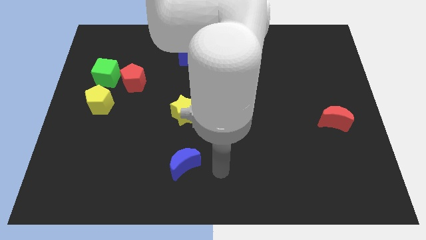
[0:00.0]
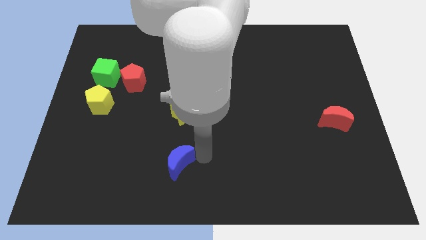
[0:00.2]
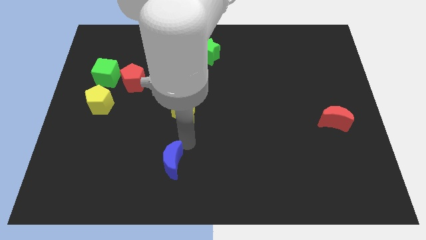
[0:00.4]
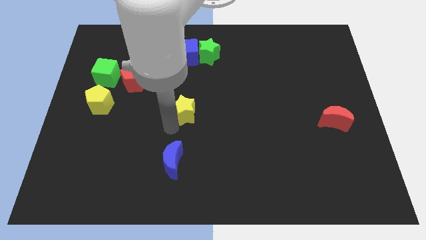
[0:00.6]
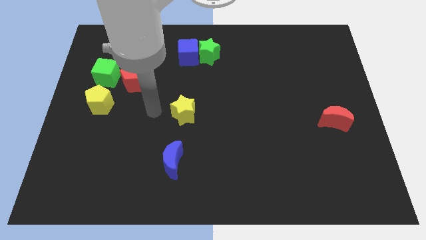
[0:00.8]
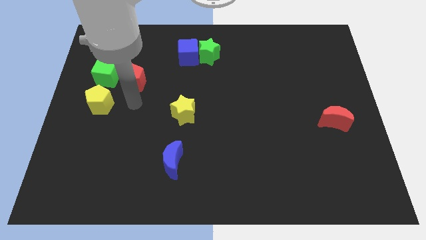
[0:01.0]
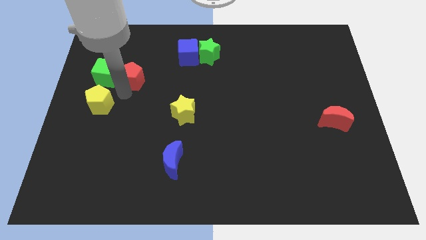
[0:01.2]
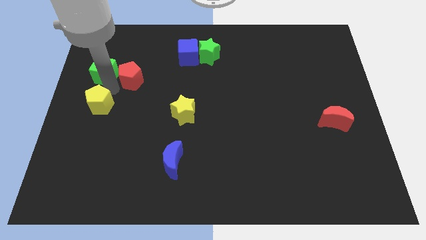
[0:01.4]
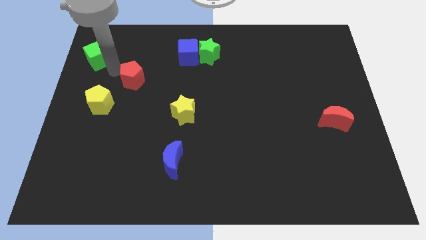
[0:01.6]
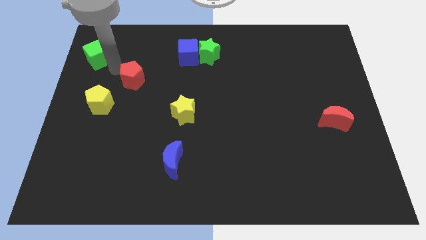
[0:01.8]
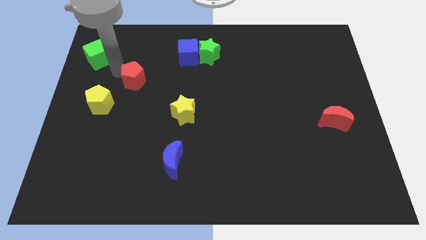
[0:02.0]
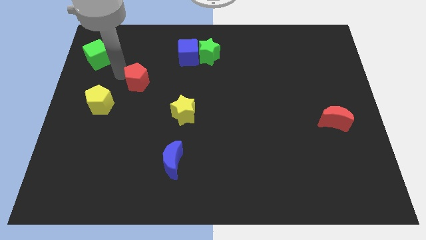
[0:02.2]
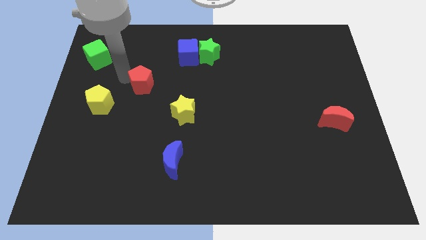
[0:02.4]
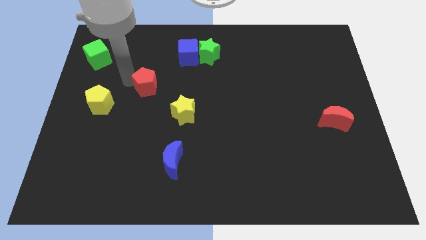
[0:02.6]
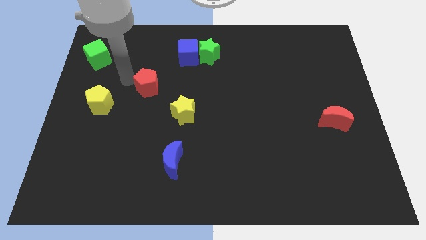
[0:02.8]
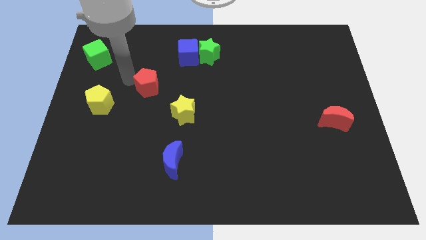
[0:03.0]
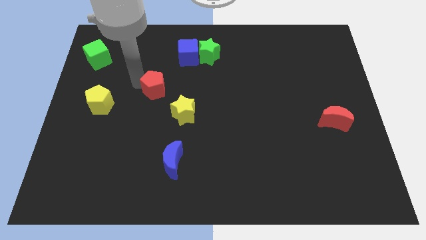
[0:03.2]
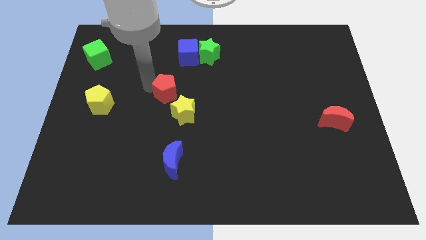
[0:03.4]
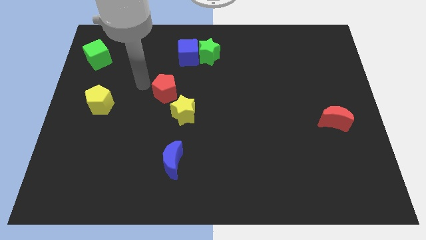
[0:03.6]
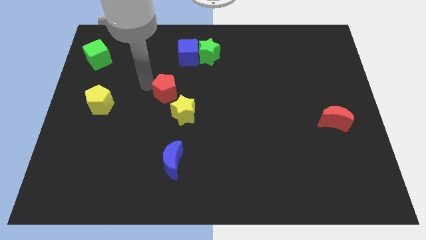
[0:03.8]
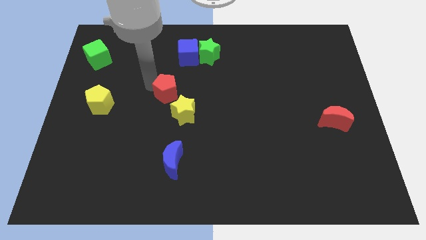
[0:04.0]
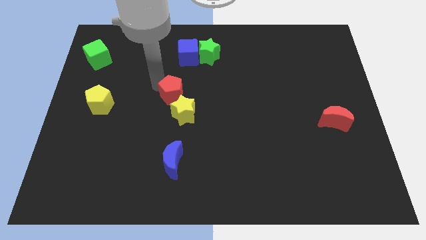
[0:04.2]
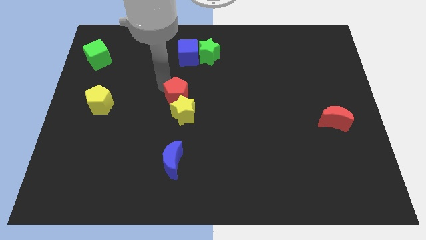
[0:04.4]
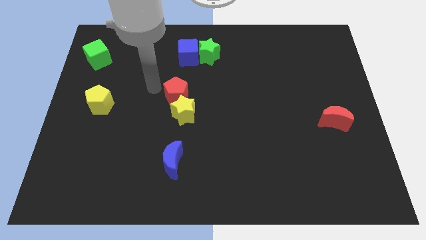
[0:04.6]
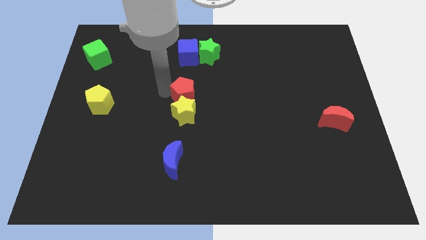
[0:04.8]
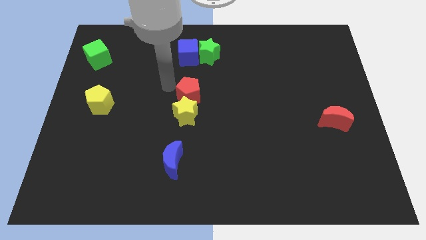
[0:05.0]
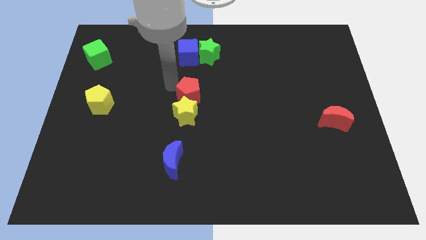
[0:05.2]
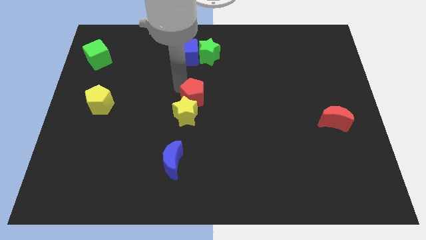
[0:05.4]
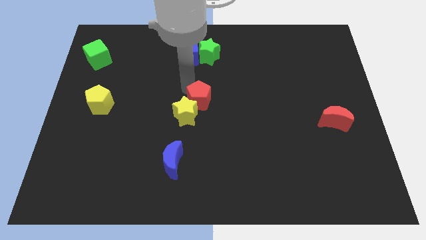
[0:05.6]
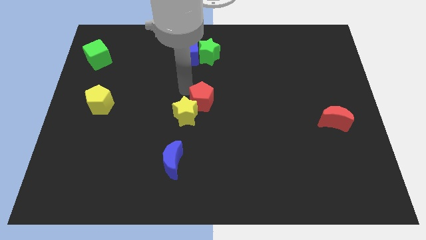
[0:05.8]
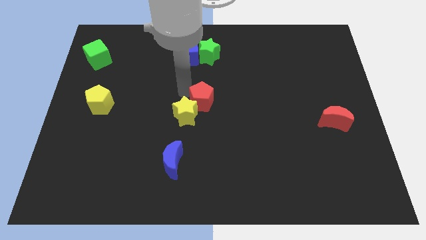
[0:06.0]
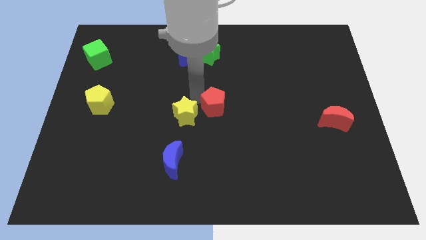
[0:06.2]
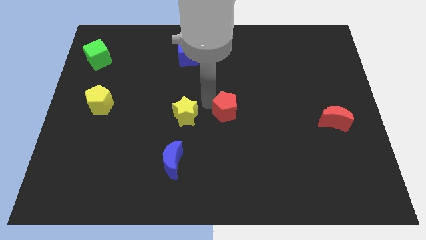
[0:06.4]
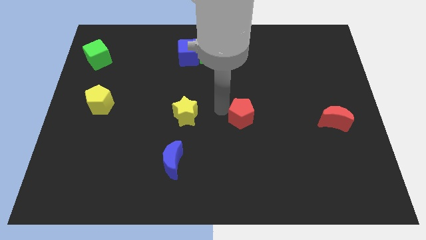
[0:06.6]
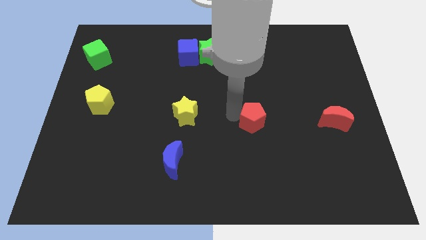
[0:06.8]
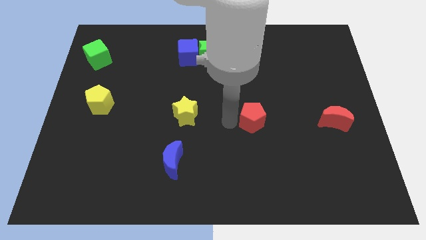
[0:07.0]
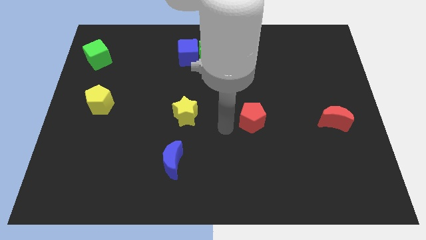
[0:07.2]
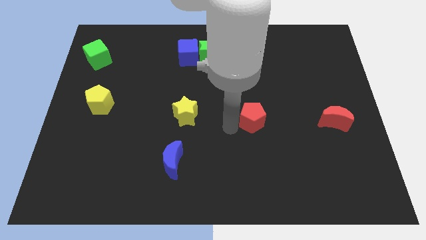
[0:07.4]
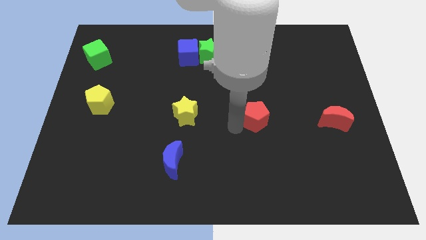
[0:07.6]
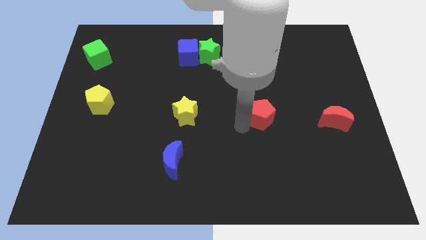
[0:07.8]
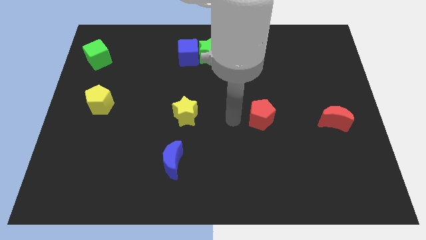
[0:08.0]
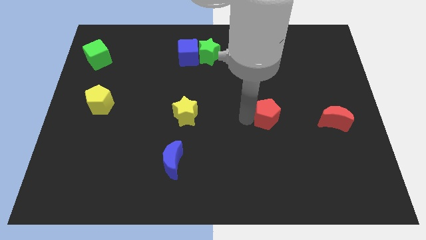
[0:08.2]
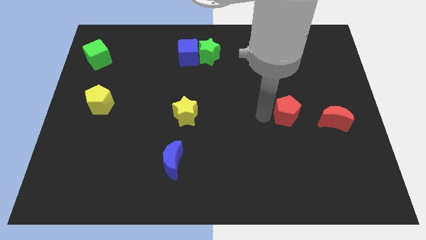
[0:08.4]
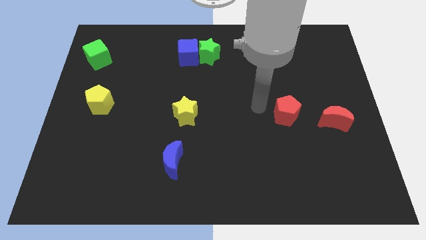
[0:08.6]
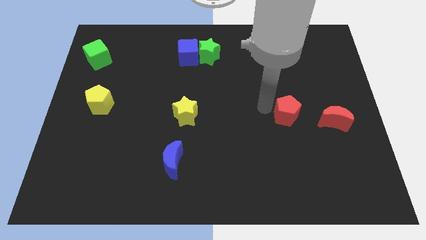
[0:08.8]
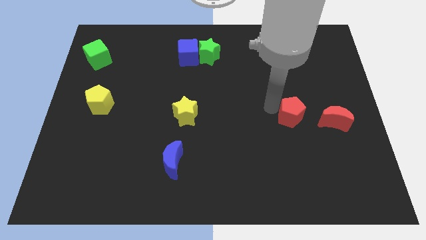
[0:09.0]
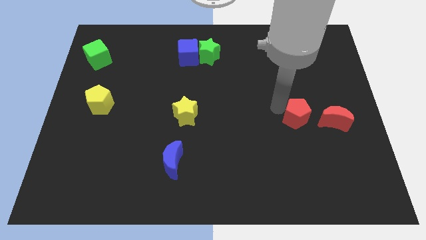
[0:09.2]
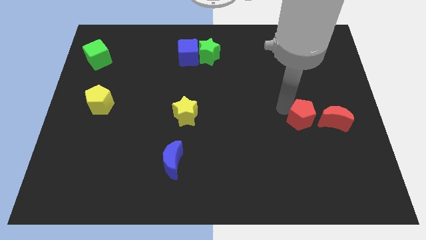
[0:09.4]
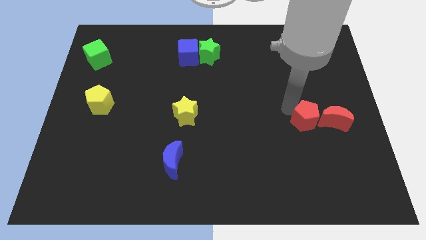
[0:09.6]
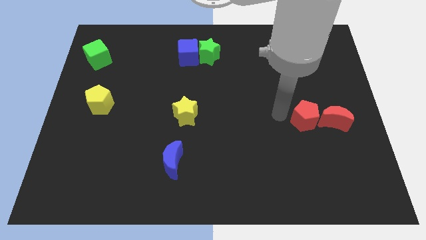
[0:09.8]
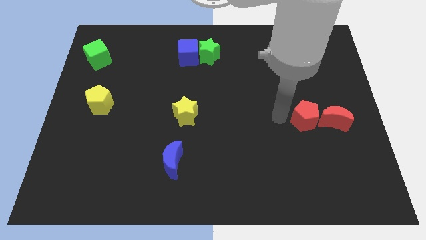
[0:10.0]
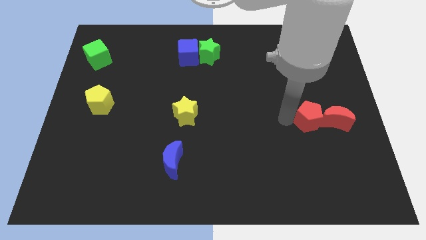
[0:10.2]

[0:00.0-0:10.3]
put the red pentagon to the red moon

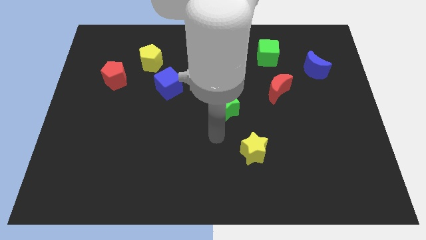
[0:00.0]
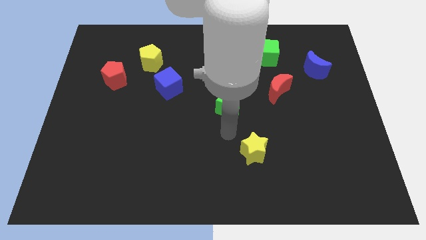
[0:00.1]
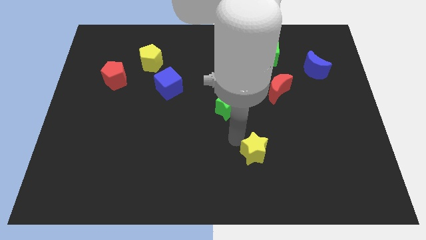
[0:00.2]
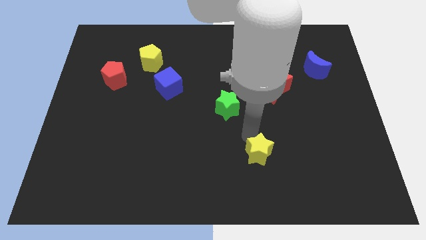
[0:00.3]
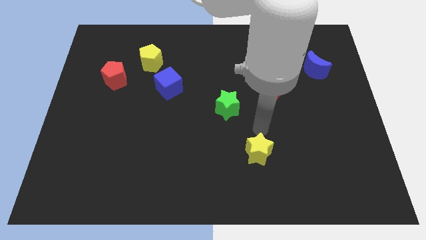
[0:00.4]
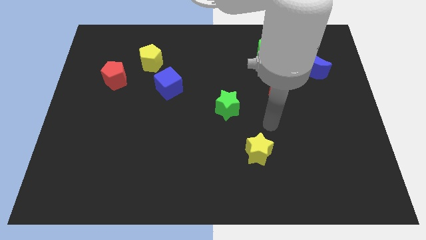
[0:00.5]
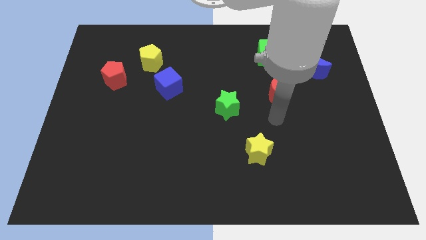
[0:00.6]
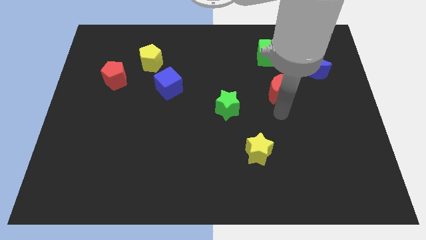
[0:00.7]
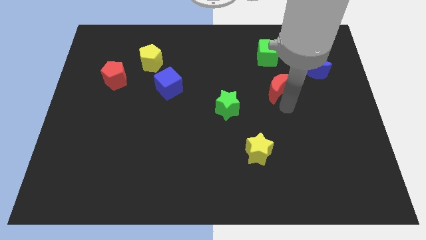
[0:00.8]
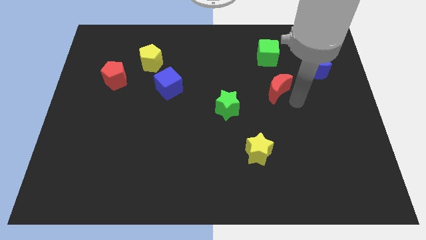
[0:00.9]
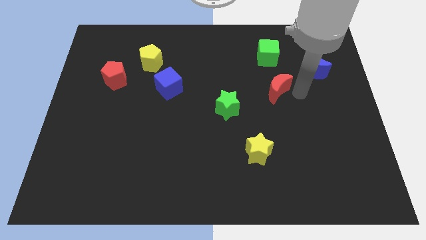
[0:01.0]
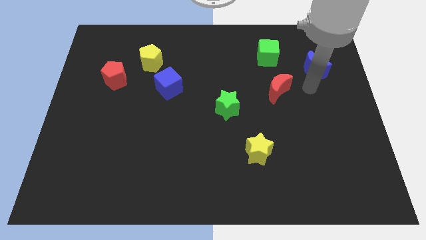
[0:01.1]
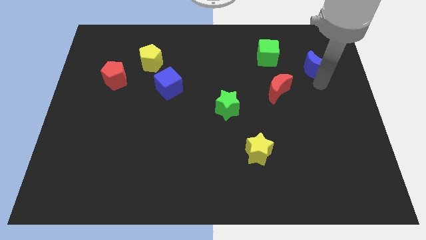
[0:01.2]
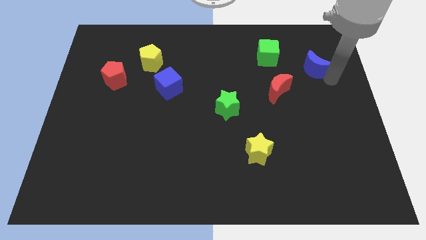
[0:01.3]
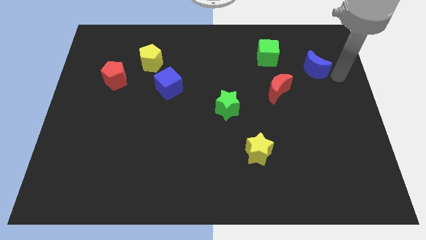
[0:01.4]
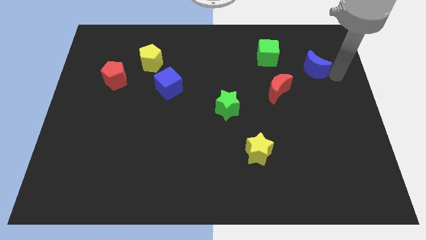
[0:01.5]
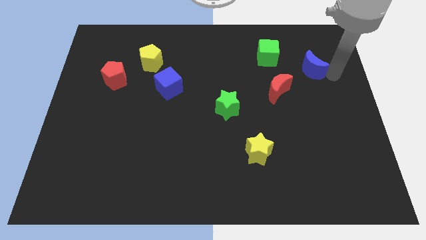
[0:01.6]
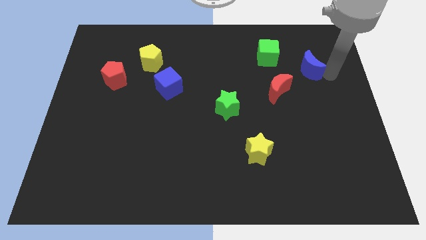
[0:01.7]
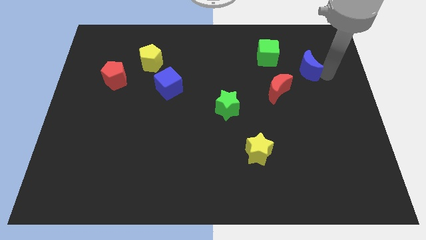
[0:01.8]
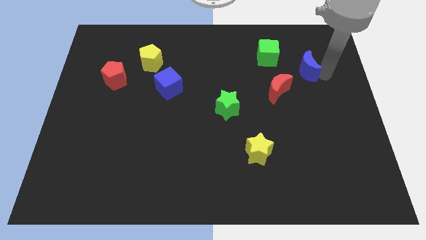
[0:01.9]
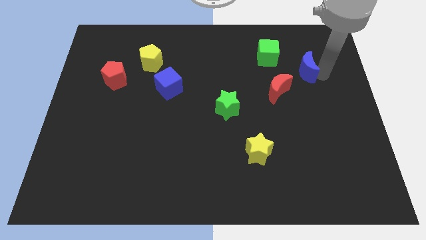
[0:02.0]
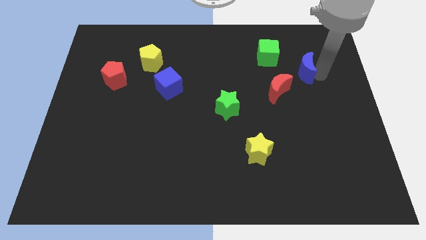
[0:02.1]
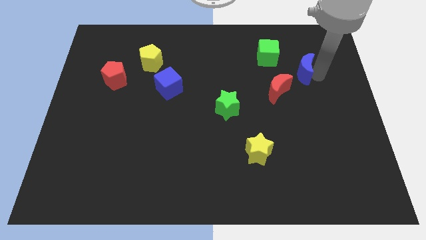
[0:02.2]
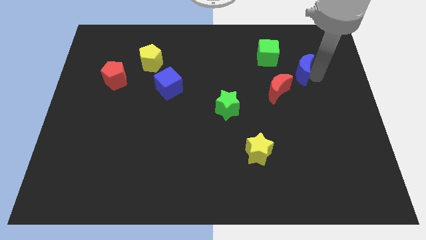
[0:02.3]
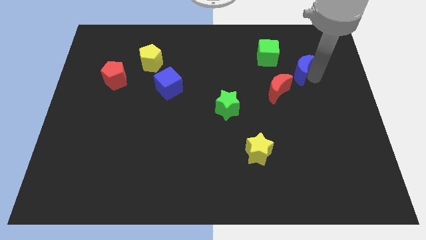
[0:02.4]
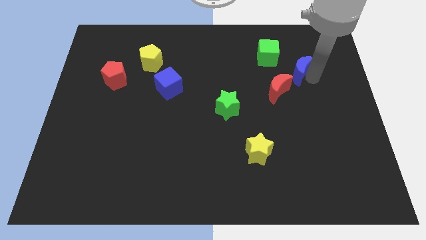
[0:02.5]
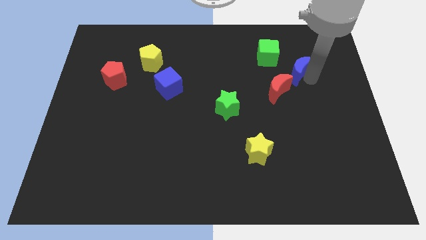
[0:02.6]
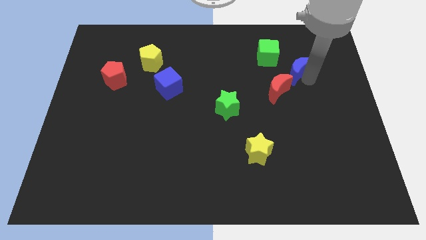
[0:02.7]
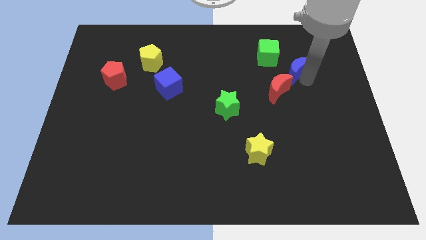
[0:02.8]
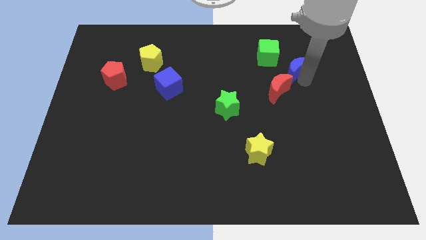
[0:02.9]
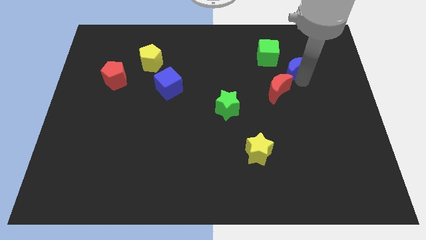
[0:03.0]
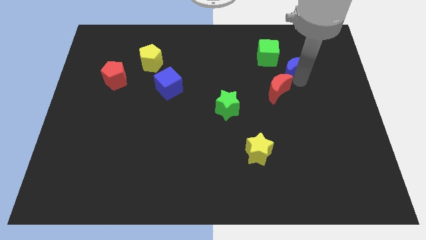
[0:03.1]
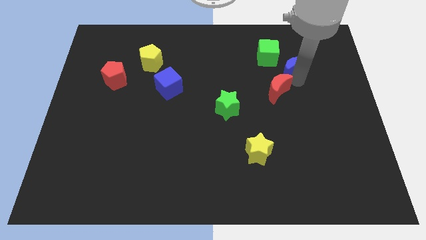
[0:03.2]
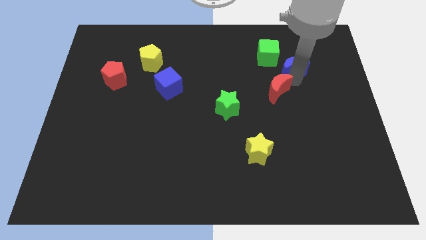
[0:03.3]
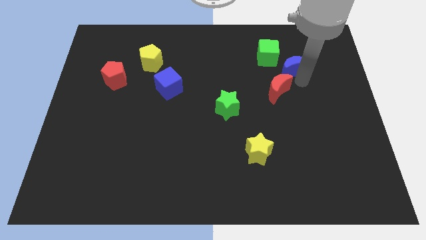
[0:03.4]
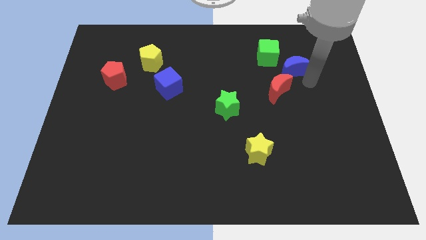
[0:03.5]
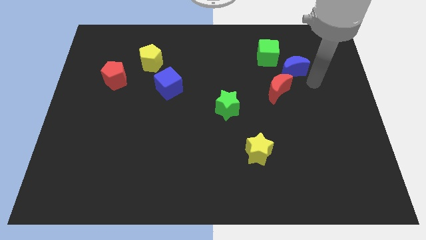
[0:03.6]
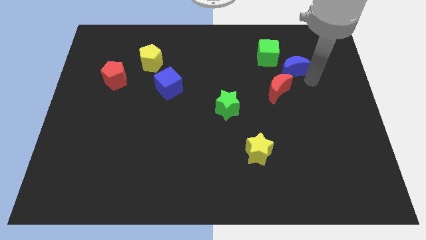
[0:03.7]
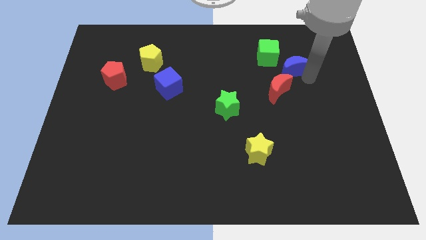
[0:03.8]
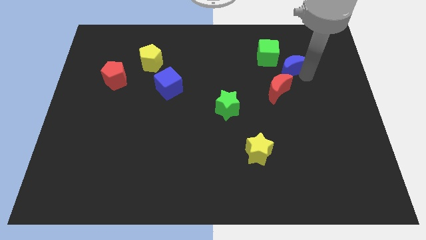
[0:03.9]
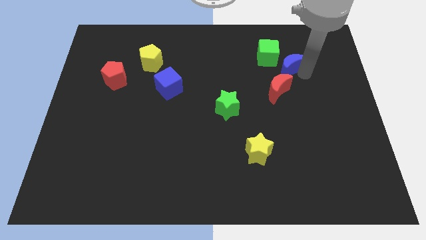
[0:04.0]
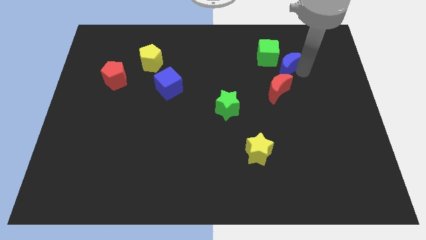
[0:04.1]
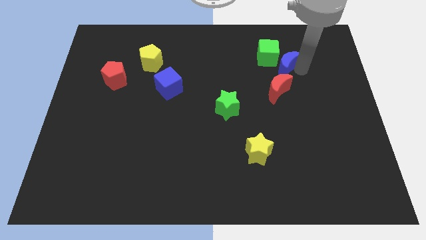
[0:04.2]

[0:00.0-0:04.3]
put the blue moon close to the green cube
